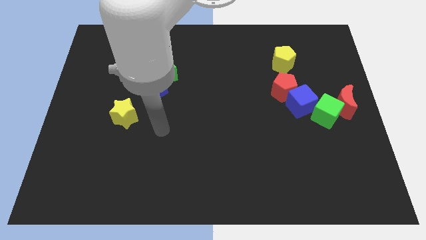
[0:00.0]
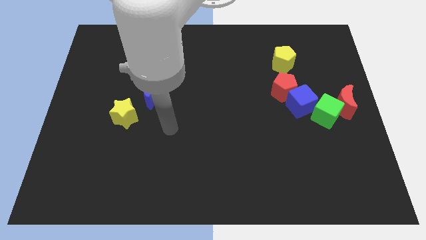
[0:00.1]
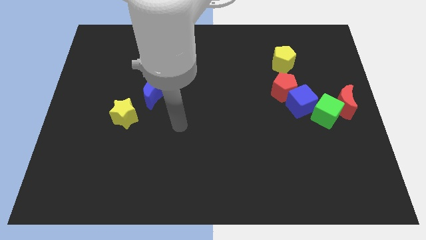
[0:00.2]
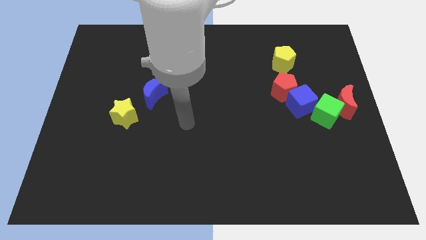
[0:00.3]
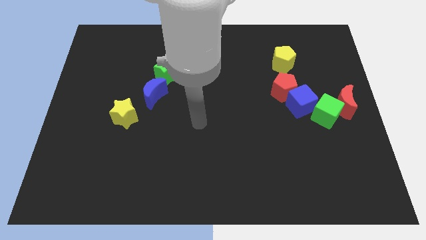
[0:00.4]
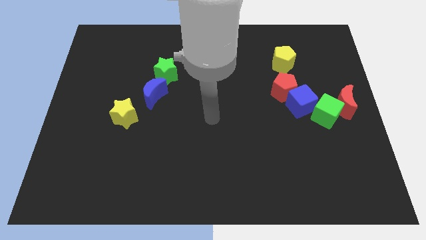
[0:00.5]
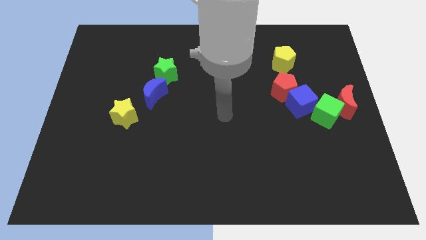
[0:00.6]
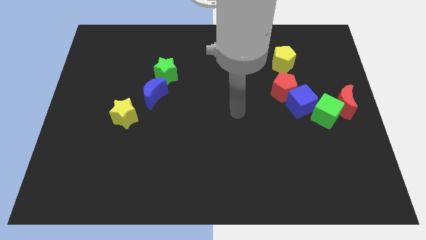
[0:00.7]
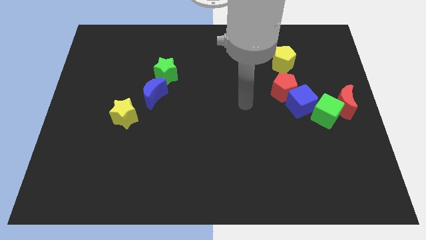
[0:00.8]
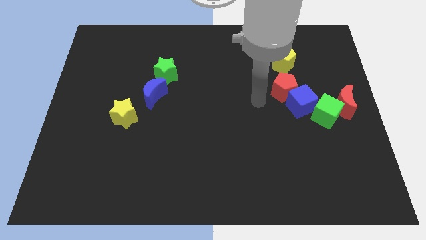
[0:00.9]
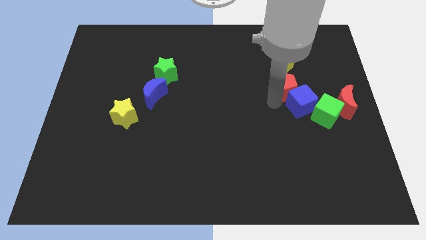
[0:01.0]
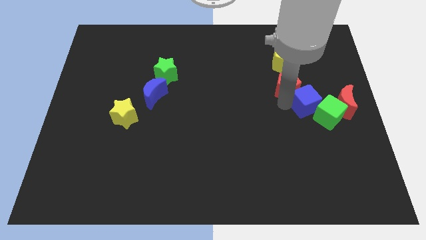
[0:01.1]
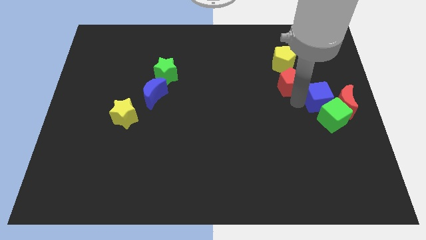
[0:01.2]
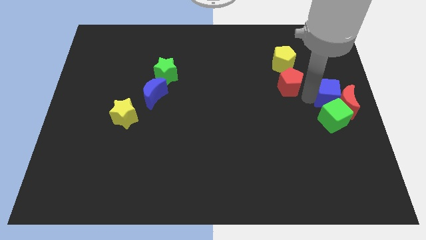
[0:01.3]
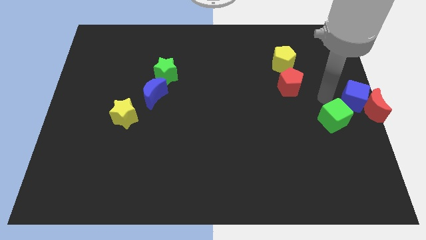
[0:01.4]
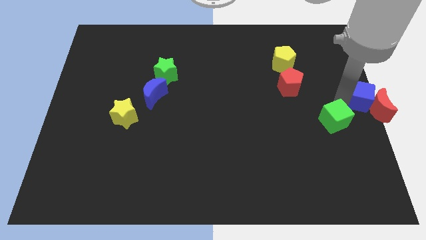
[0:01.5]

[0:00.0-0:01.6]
separate the green cube from the red moon and blue cube

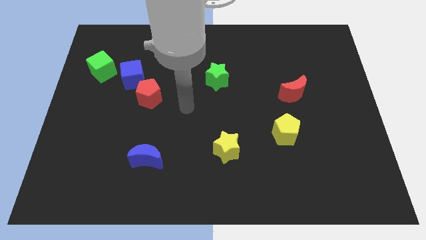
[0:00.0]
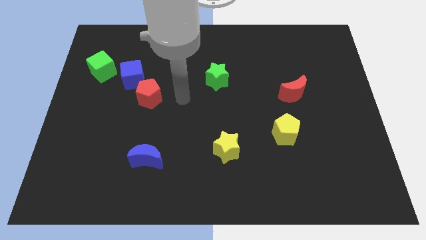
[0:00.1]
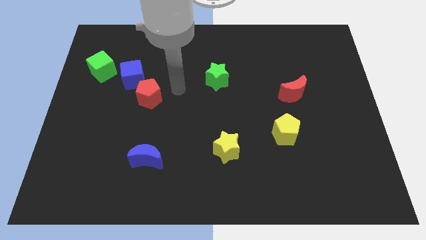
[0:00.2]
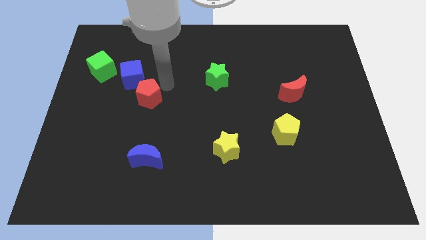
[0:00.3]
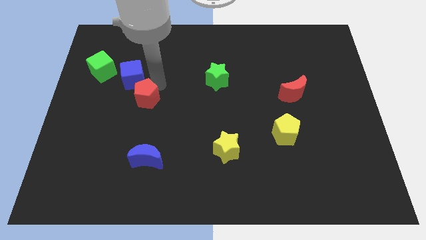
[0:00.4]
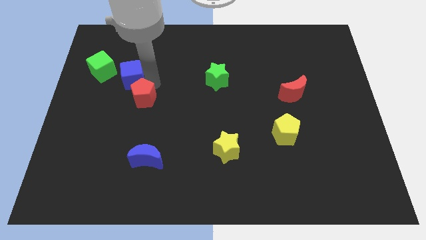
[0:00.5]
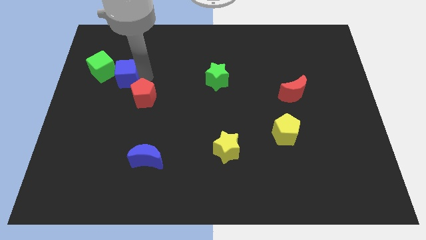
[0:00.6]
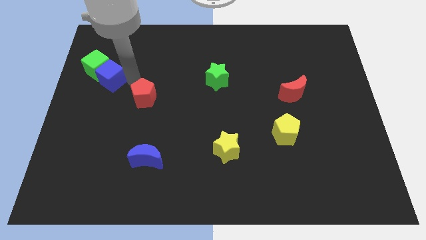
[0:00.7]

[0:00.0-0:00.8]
move the red pentagon away from the blue cube

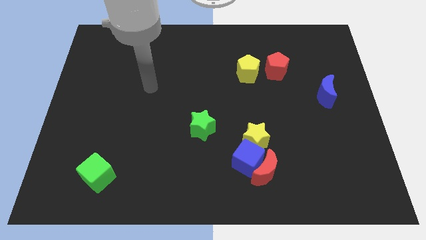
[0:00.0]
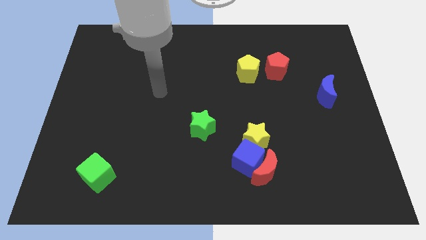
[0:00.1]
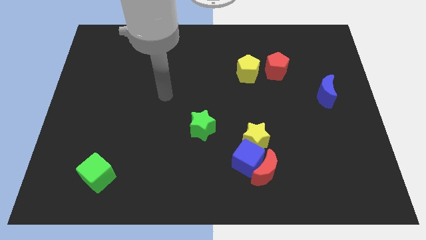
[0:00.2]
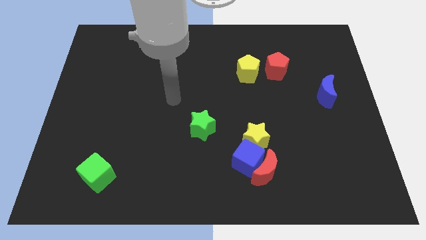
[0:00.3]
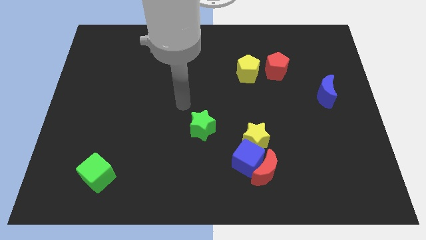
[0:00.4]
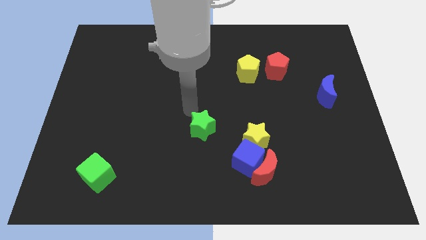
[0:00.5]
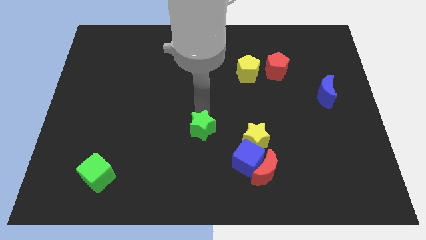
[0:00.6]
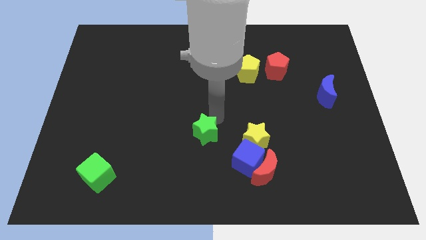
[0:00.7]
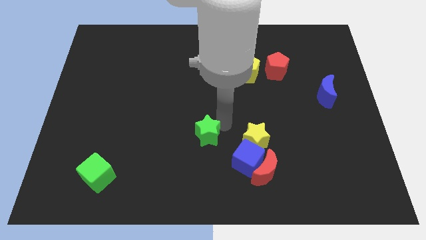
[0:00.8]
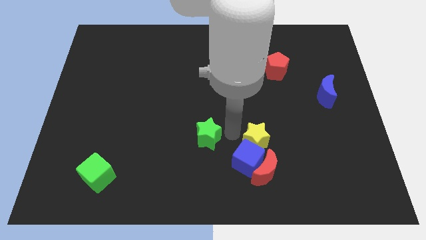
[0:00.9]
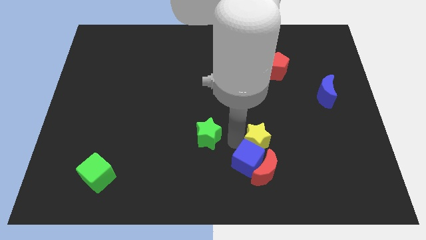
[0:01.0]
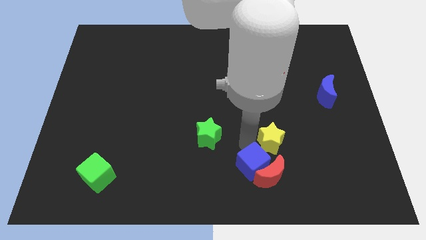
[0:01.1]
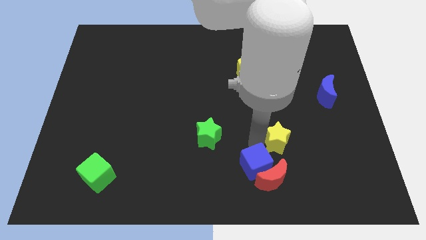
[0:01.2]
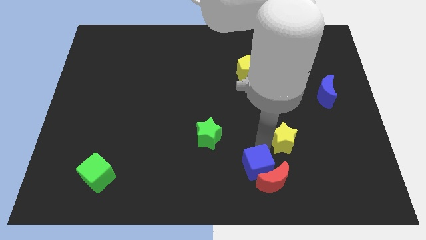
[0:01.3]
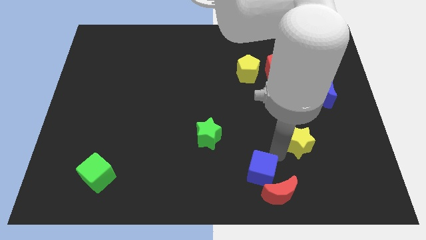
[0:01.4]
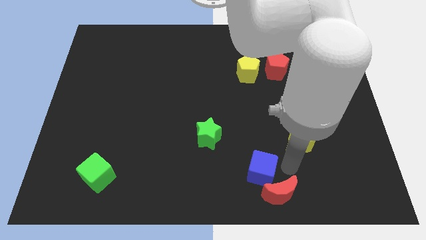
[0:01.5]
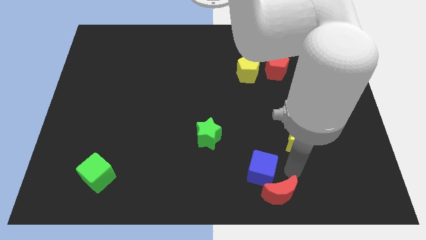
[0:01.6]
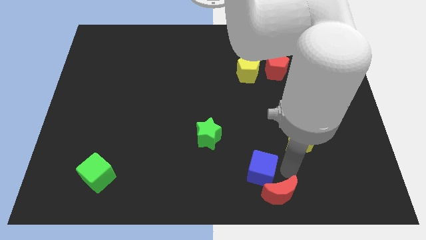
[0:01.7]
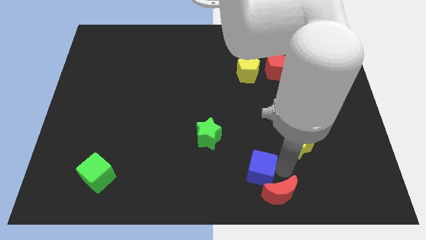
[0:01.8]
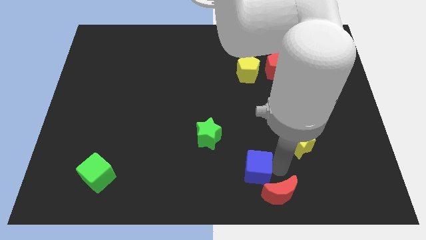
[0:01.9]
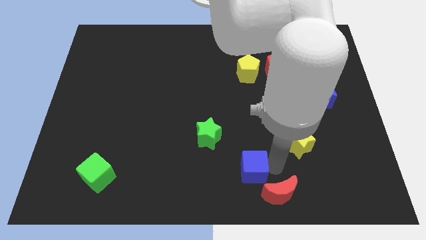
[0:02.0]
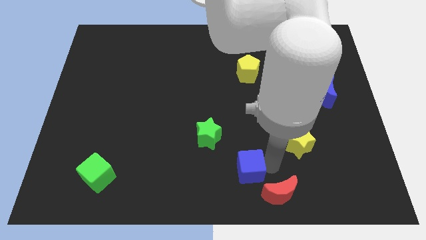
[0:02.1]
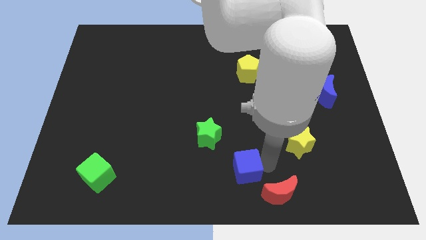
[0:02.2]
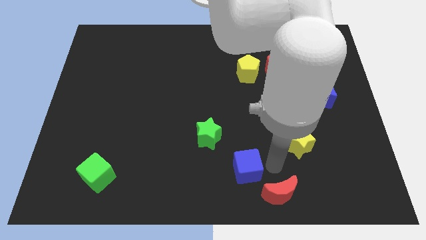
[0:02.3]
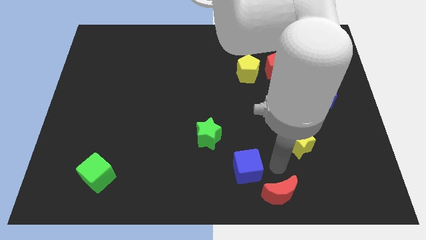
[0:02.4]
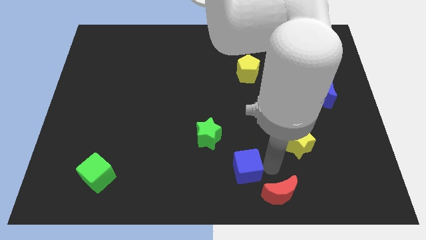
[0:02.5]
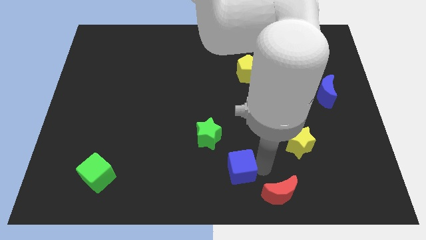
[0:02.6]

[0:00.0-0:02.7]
move the blue cube away from the red moon and yellow star

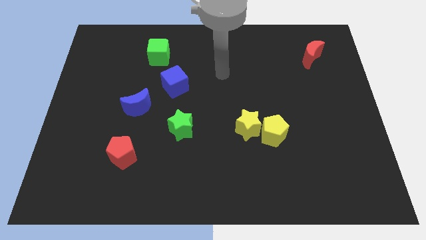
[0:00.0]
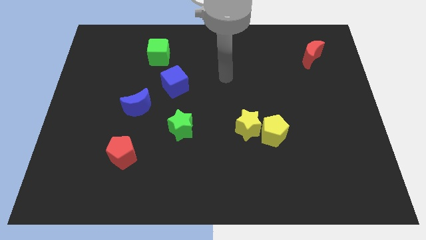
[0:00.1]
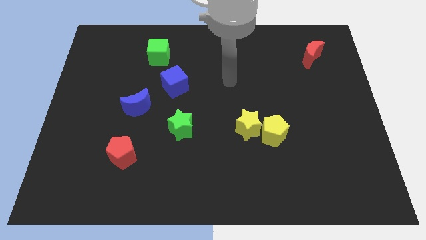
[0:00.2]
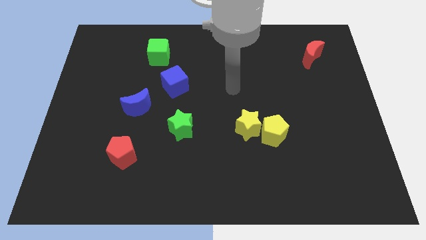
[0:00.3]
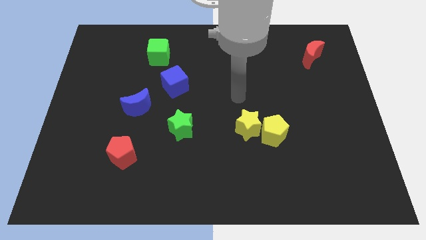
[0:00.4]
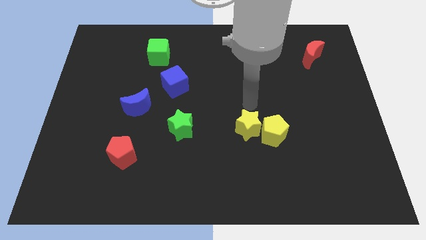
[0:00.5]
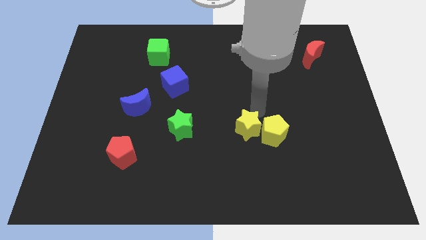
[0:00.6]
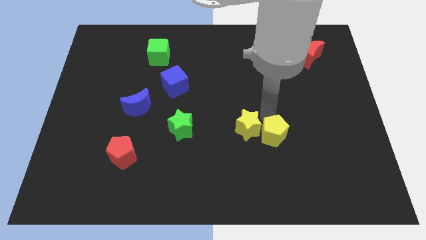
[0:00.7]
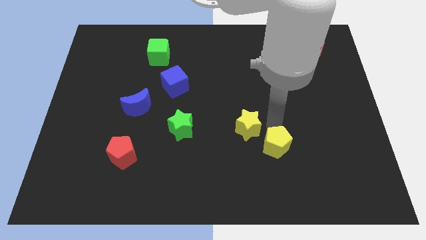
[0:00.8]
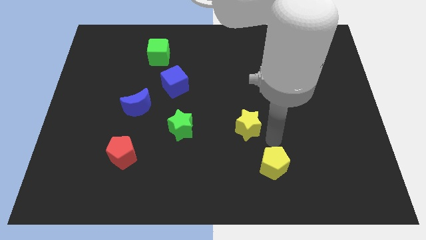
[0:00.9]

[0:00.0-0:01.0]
pull the yellow star apart from the yellow pentagon

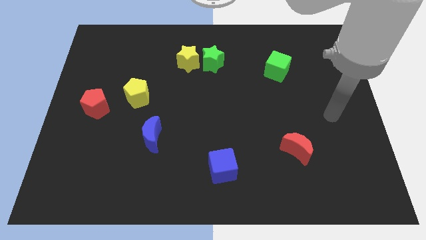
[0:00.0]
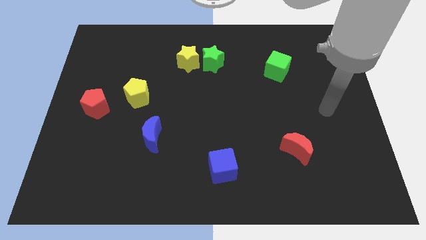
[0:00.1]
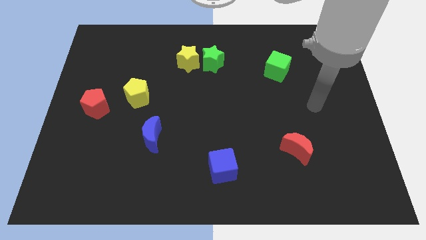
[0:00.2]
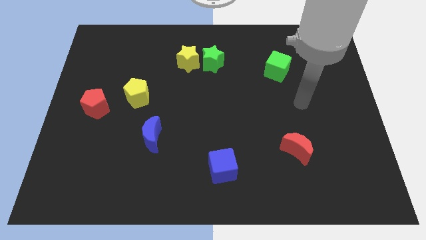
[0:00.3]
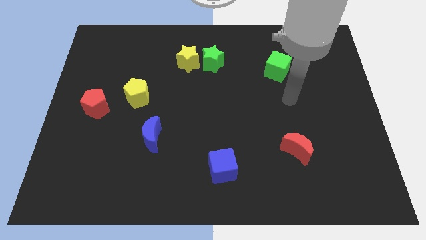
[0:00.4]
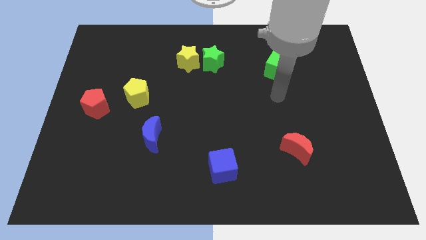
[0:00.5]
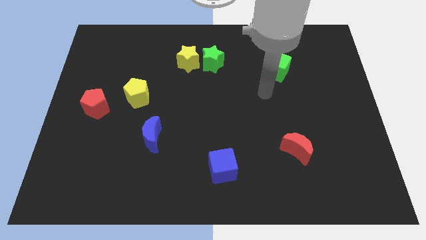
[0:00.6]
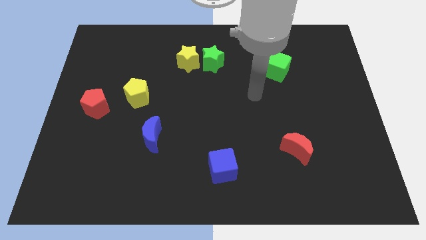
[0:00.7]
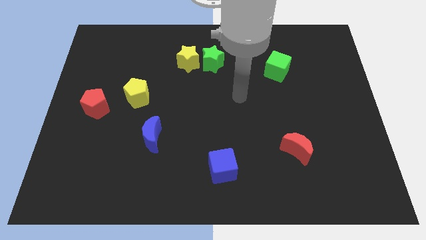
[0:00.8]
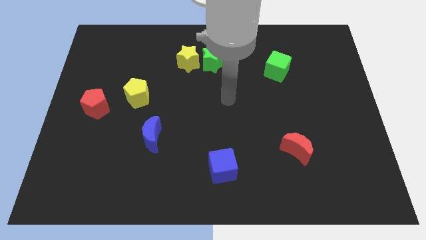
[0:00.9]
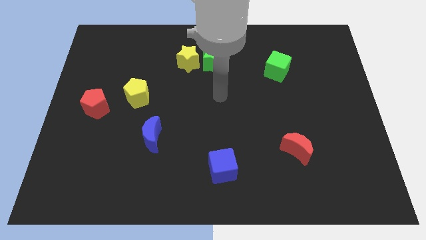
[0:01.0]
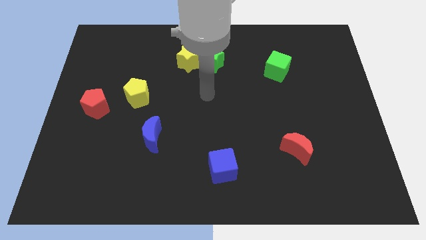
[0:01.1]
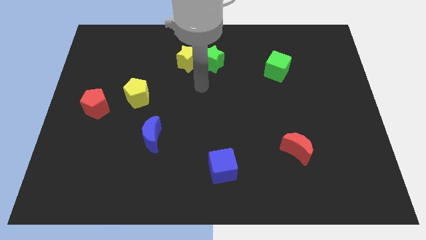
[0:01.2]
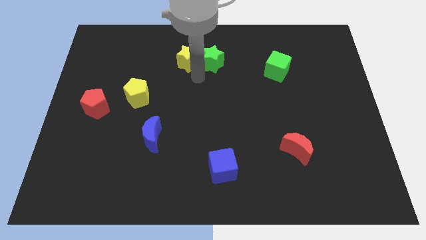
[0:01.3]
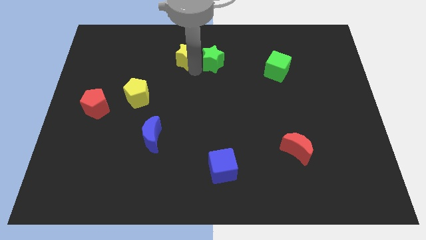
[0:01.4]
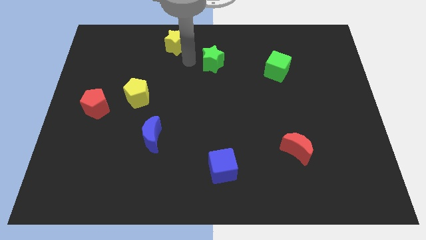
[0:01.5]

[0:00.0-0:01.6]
move the green star away from the yellow star

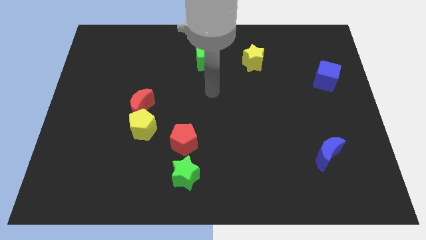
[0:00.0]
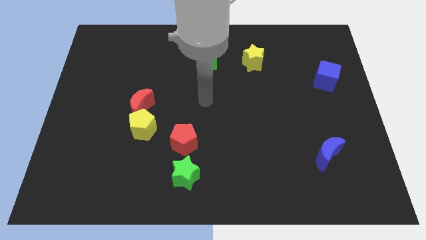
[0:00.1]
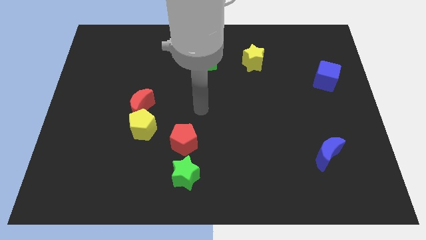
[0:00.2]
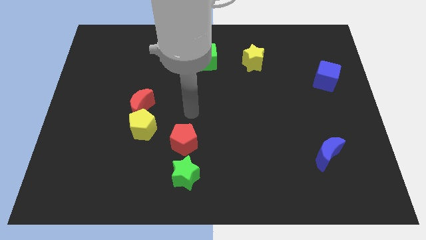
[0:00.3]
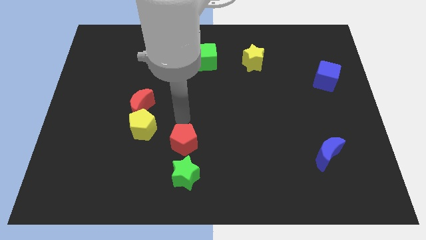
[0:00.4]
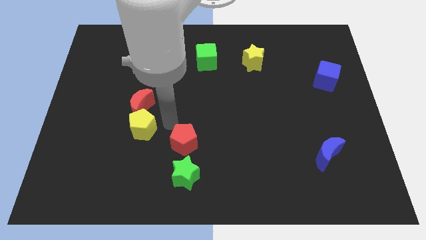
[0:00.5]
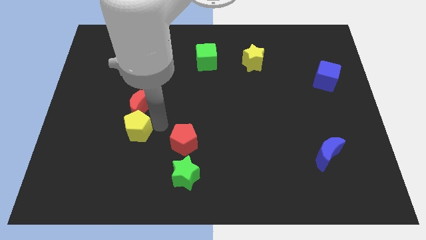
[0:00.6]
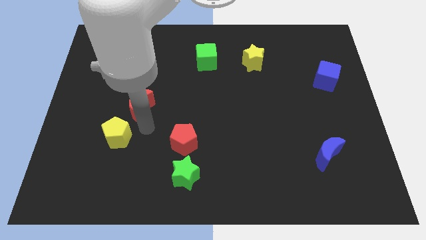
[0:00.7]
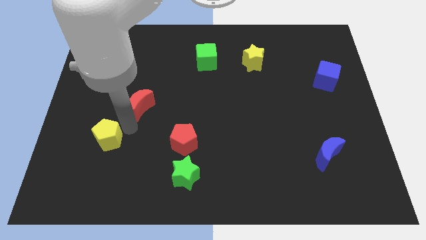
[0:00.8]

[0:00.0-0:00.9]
pull the red moon apart from the yellow pentagon

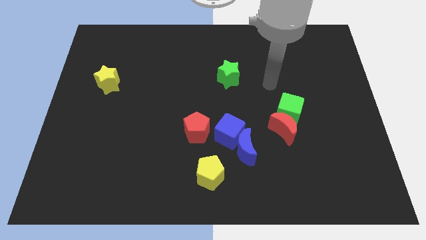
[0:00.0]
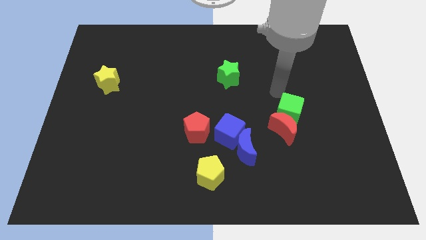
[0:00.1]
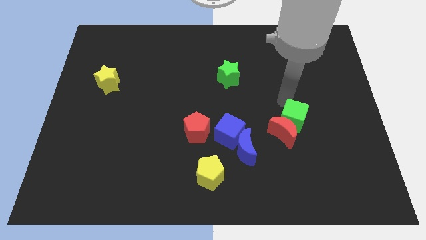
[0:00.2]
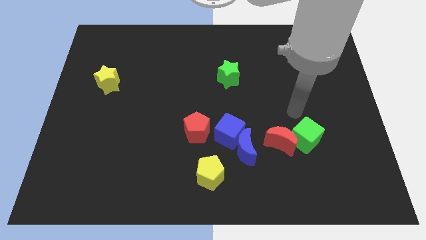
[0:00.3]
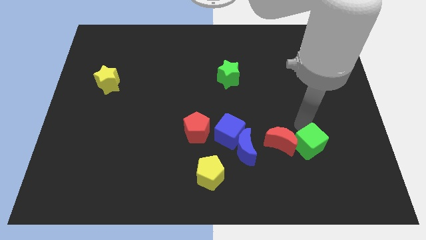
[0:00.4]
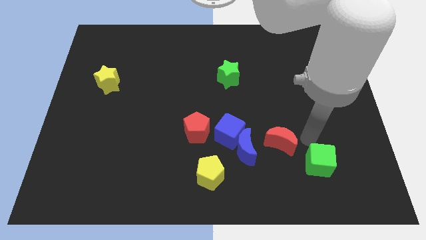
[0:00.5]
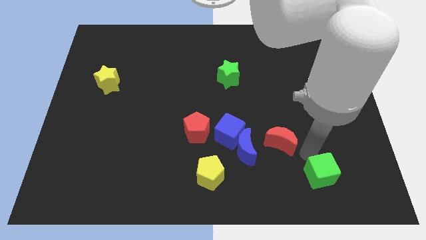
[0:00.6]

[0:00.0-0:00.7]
separate the red moon from the green cube
